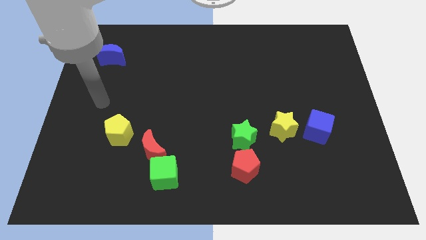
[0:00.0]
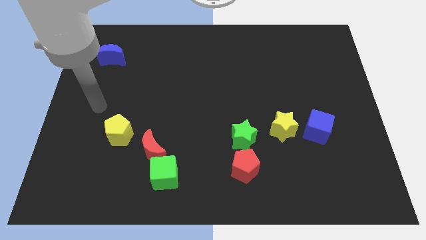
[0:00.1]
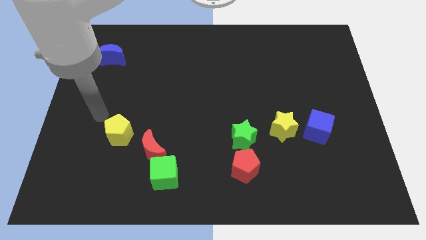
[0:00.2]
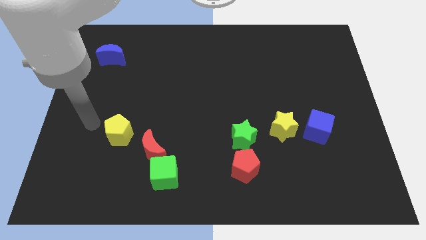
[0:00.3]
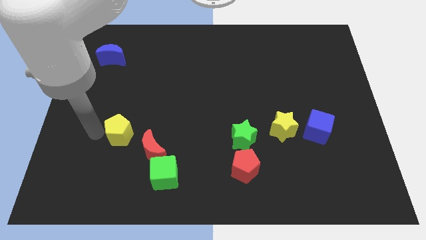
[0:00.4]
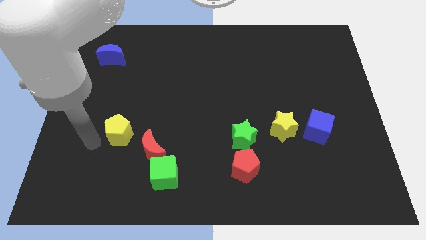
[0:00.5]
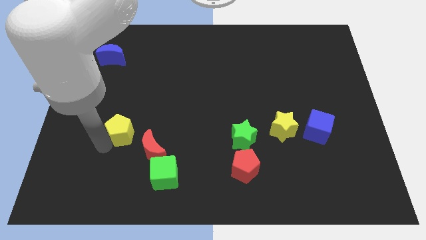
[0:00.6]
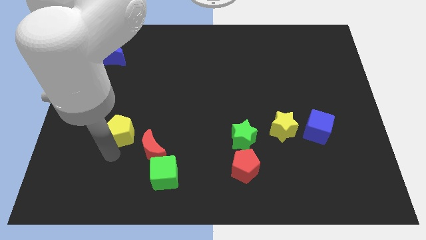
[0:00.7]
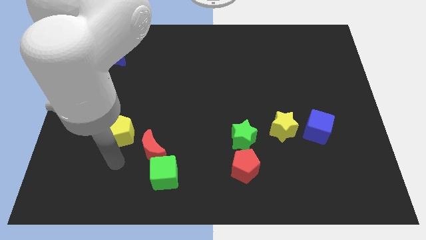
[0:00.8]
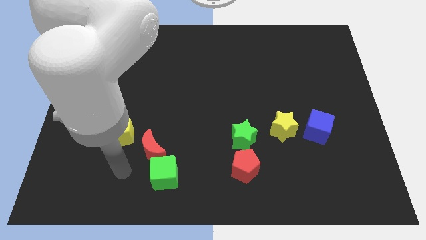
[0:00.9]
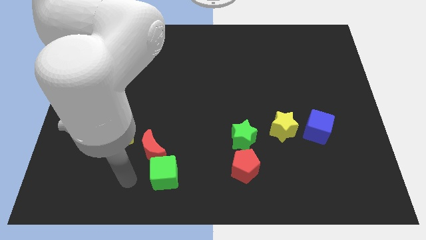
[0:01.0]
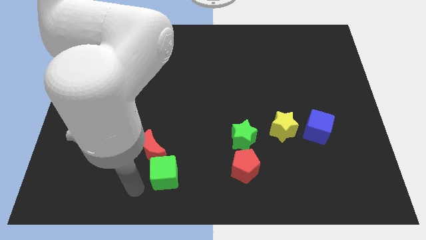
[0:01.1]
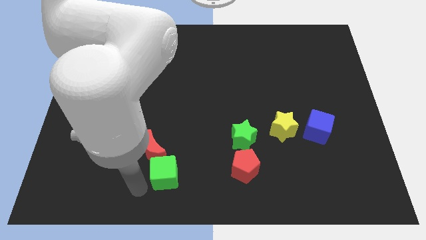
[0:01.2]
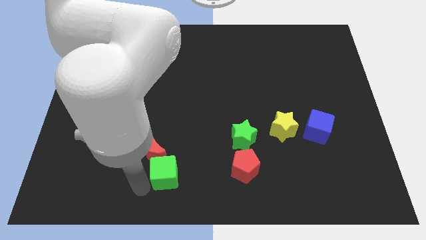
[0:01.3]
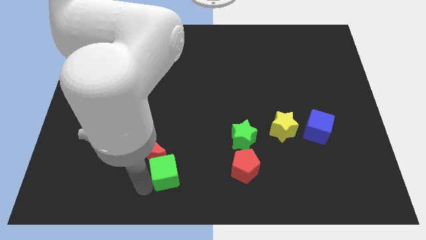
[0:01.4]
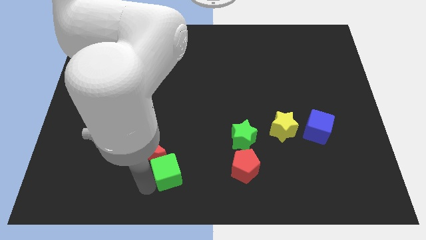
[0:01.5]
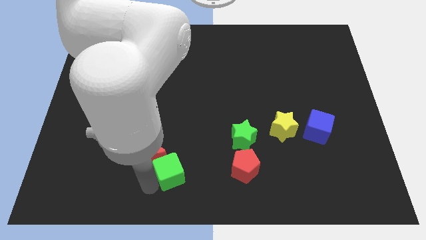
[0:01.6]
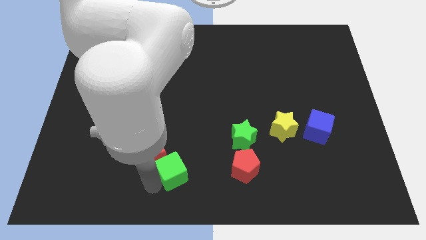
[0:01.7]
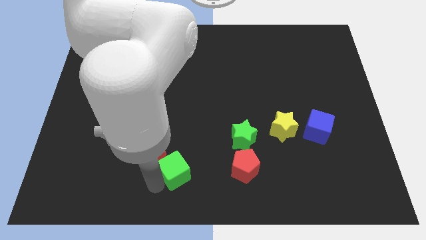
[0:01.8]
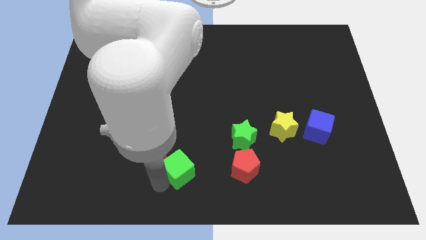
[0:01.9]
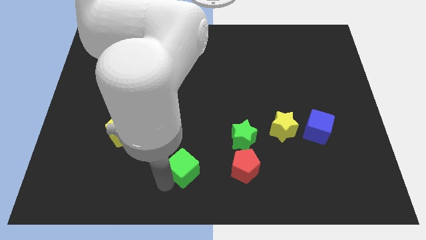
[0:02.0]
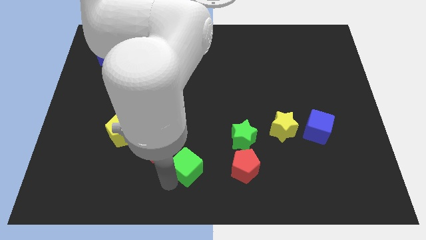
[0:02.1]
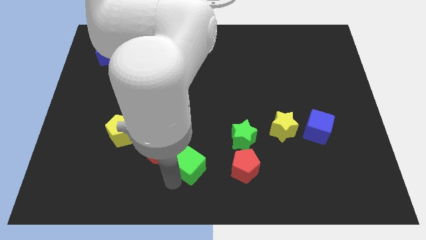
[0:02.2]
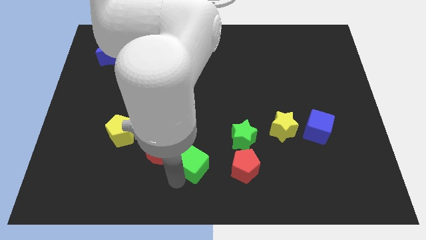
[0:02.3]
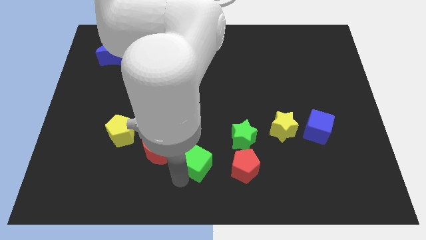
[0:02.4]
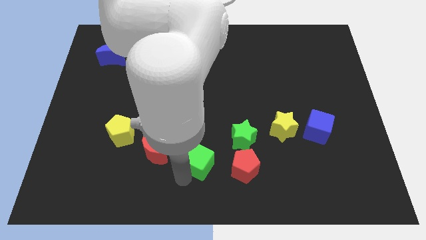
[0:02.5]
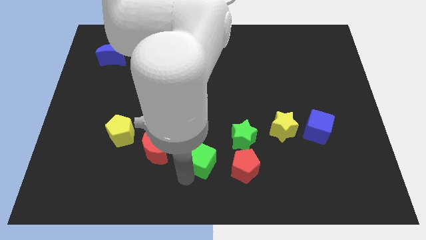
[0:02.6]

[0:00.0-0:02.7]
slide the green cube up and right diagonally slightly

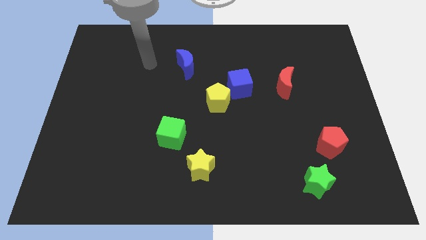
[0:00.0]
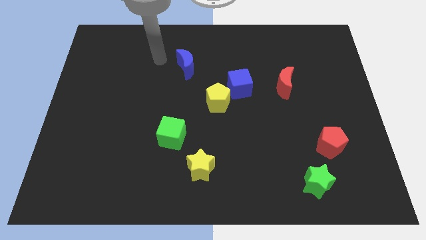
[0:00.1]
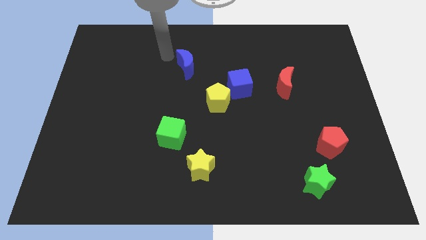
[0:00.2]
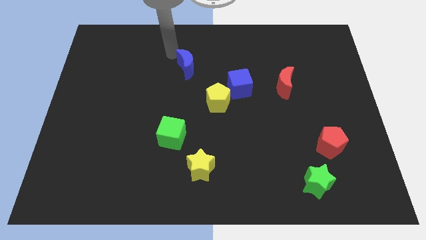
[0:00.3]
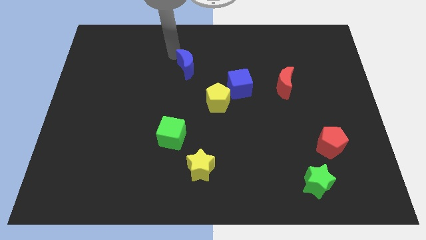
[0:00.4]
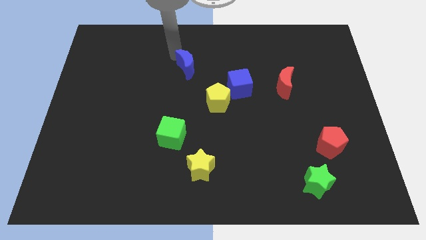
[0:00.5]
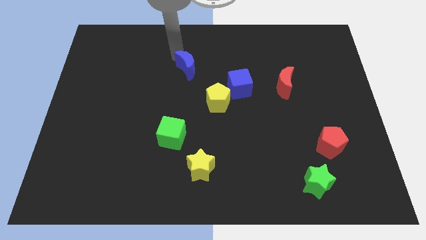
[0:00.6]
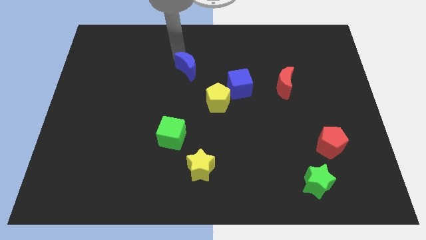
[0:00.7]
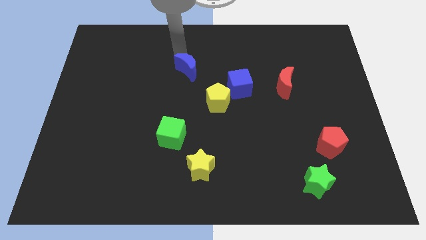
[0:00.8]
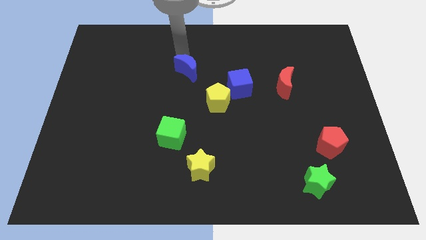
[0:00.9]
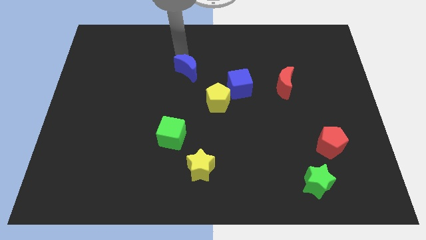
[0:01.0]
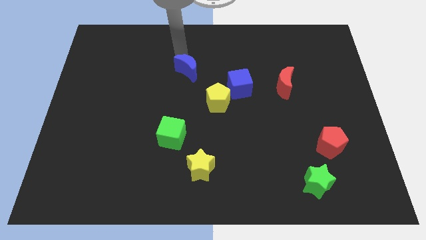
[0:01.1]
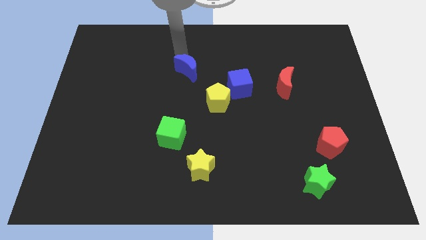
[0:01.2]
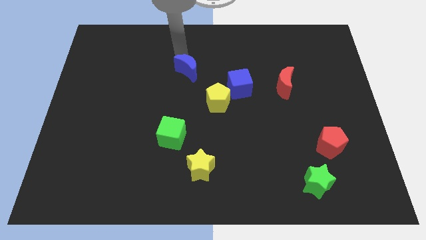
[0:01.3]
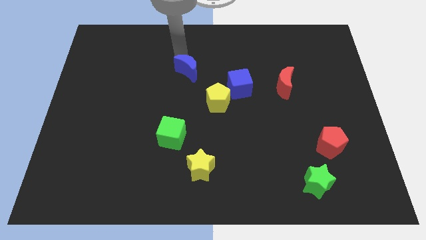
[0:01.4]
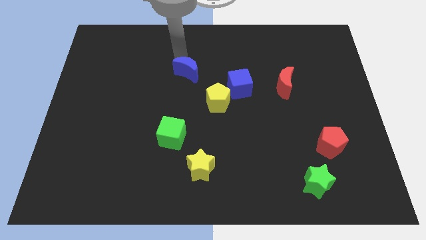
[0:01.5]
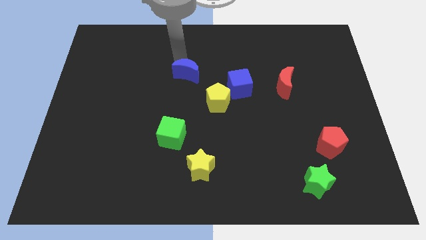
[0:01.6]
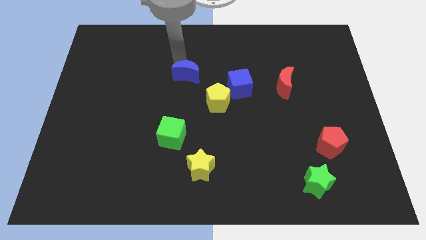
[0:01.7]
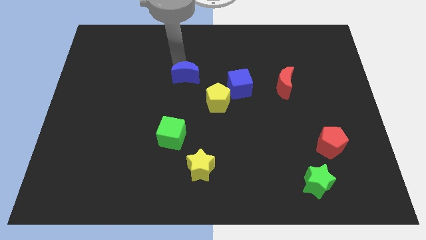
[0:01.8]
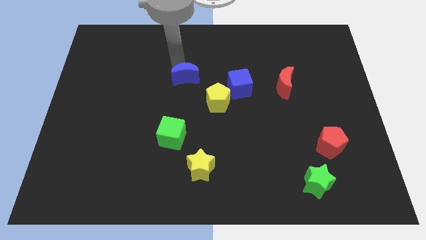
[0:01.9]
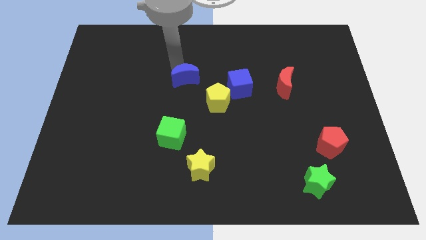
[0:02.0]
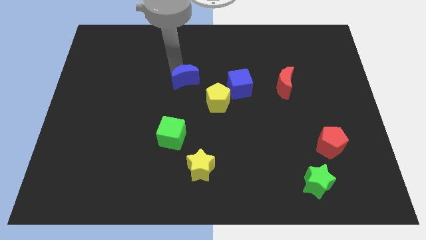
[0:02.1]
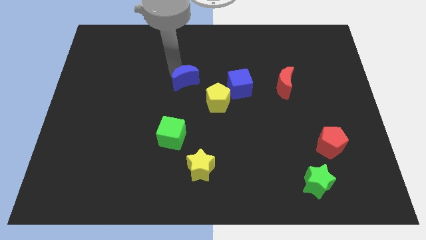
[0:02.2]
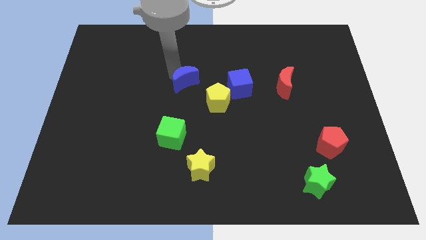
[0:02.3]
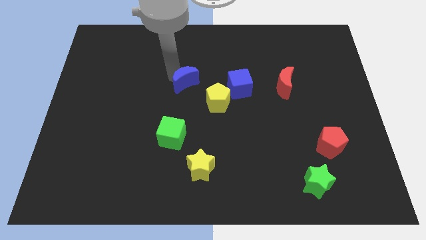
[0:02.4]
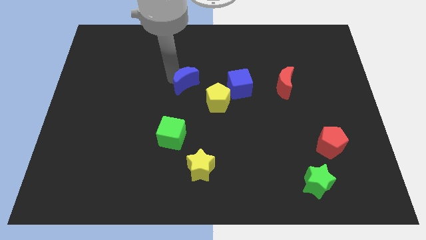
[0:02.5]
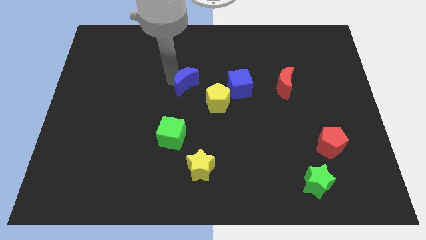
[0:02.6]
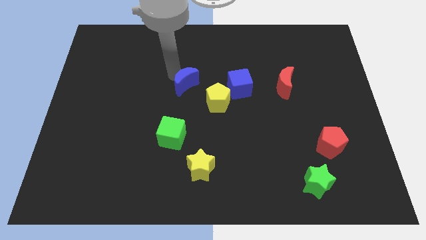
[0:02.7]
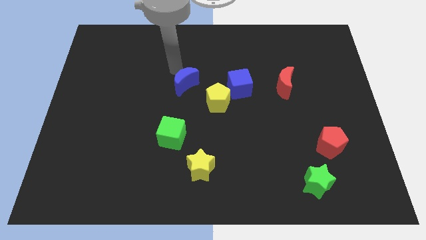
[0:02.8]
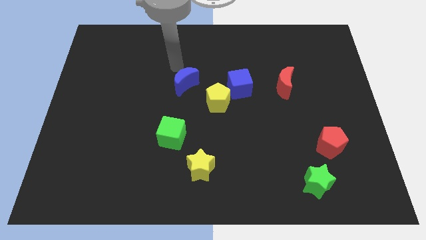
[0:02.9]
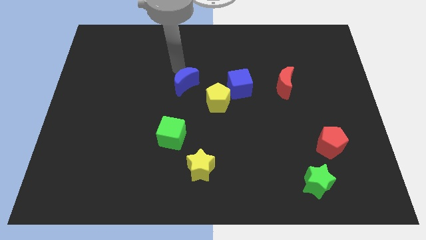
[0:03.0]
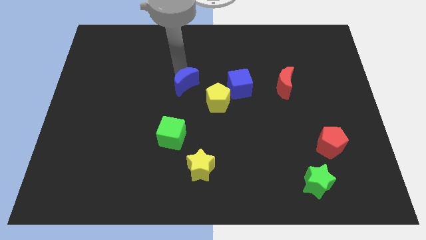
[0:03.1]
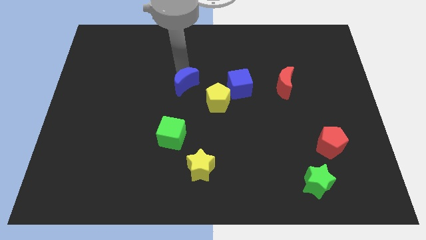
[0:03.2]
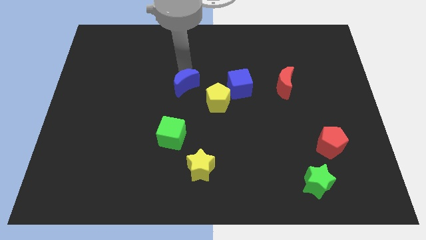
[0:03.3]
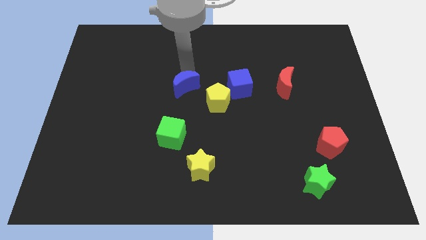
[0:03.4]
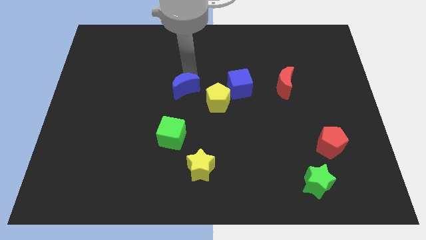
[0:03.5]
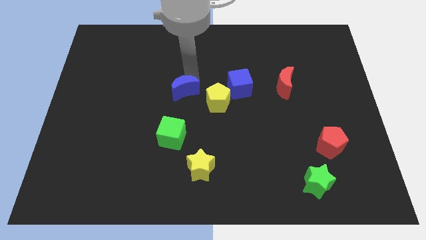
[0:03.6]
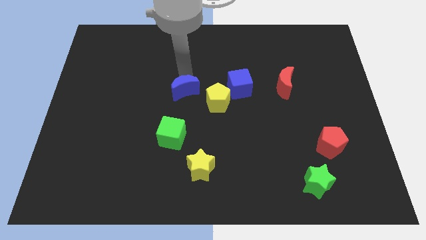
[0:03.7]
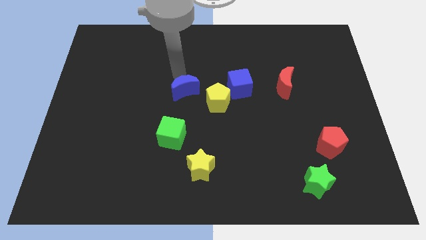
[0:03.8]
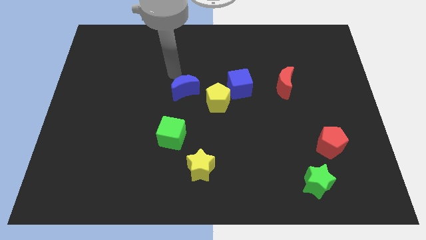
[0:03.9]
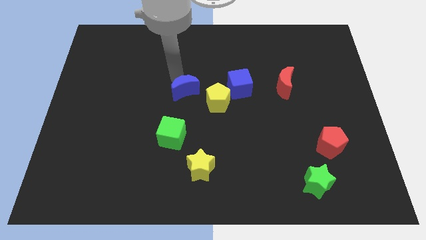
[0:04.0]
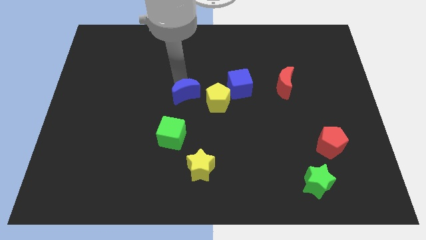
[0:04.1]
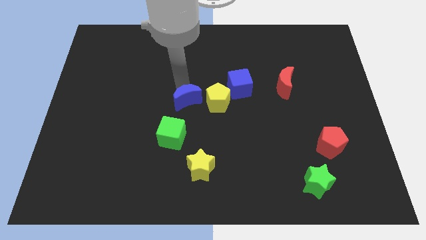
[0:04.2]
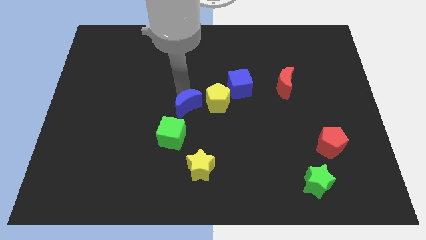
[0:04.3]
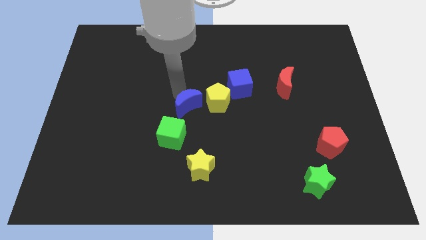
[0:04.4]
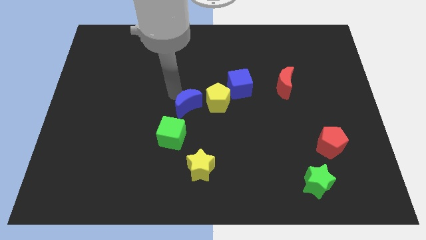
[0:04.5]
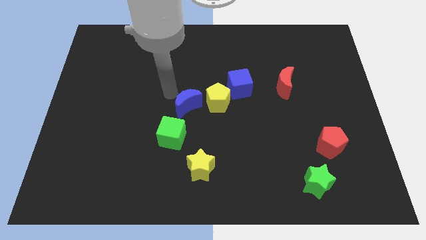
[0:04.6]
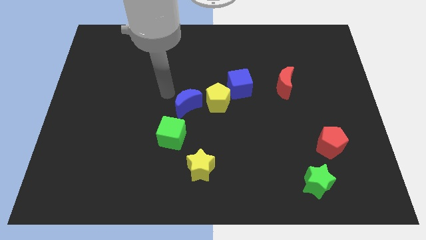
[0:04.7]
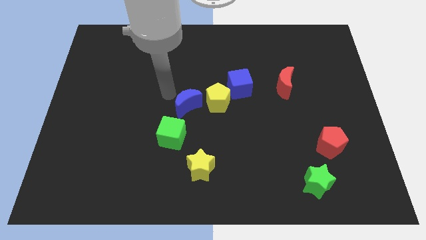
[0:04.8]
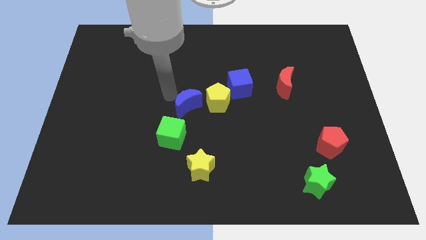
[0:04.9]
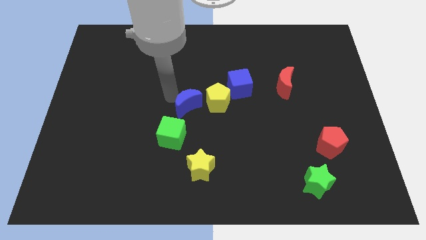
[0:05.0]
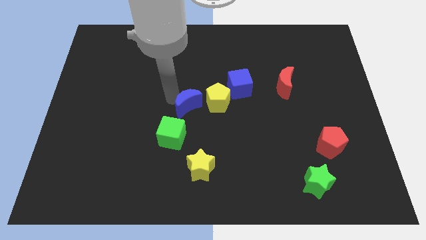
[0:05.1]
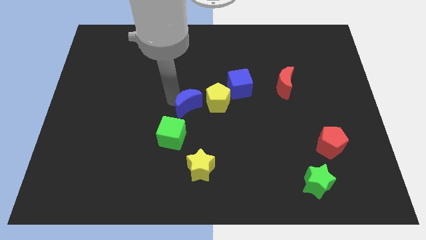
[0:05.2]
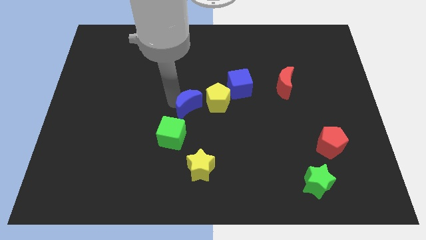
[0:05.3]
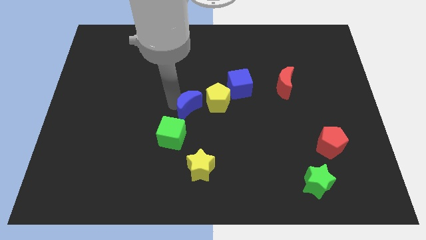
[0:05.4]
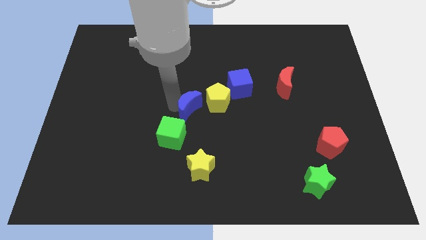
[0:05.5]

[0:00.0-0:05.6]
slightly push the blue moon downwards and right
